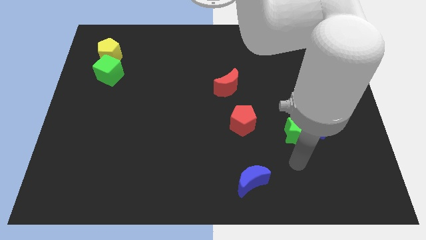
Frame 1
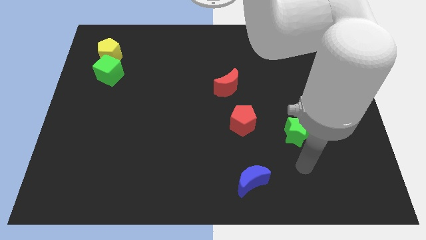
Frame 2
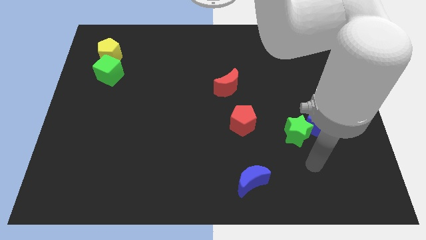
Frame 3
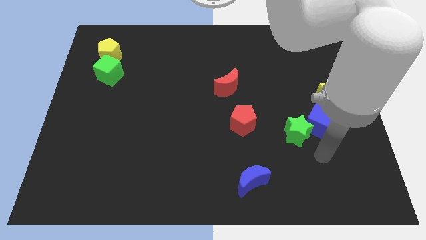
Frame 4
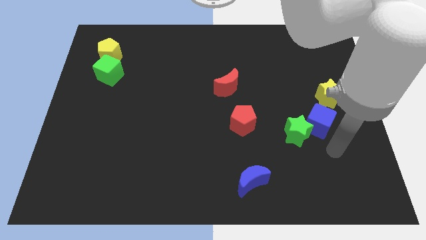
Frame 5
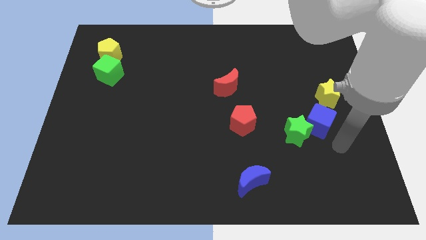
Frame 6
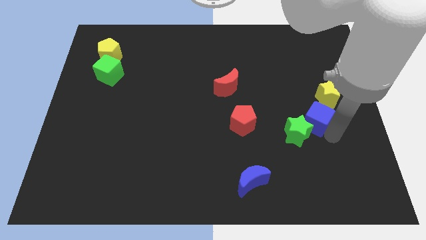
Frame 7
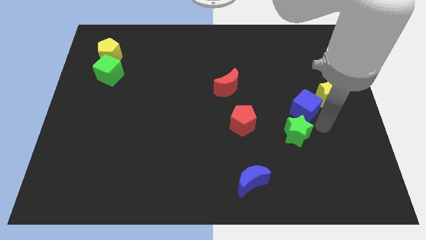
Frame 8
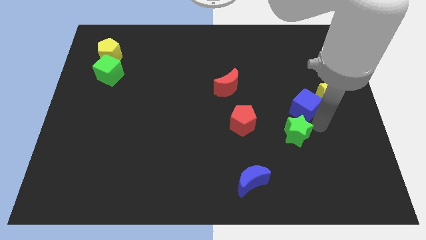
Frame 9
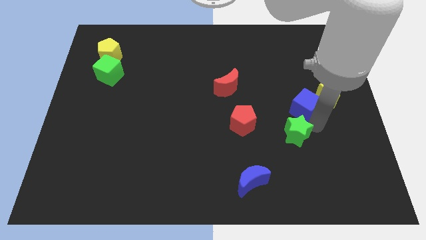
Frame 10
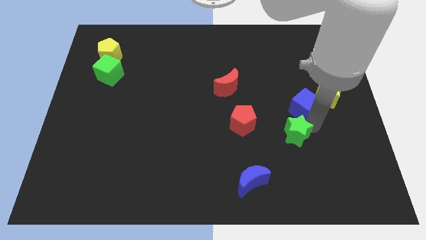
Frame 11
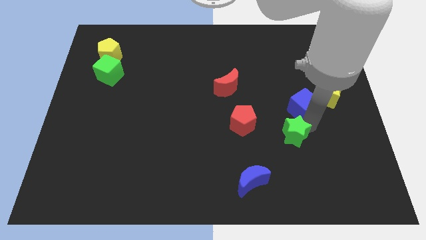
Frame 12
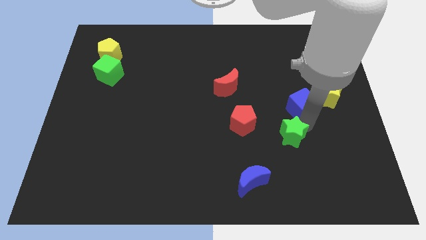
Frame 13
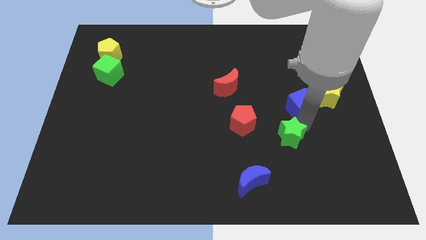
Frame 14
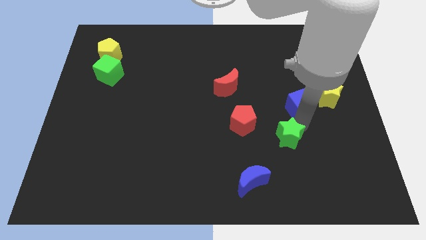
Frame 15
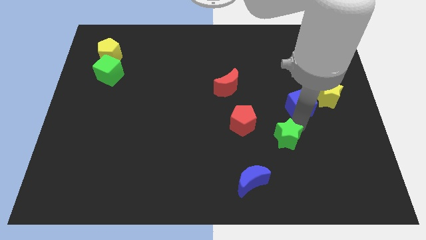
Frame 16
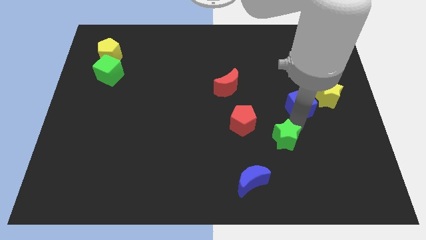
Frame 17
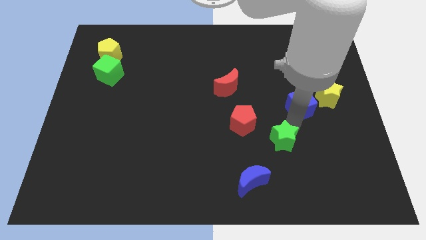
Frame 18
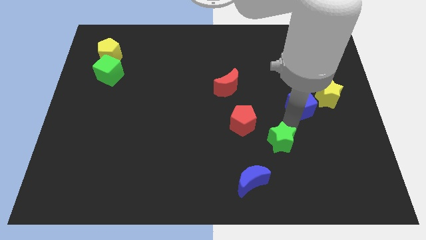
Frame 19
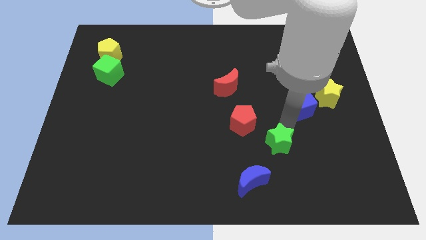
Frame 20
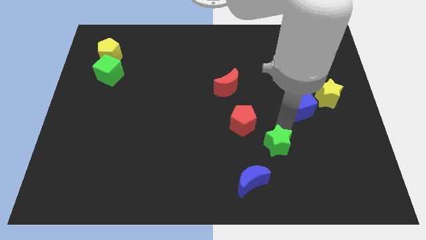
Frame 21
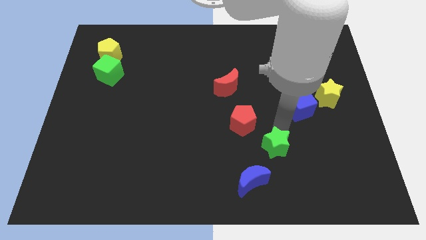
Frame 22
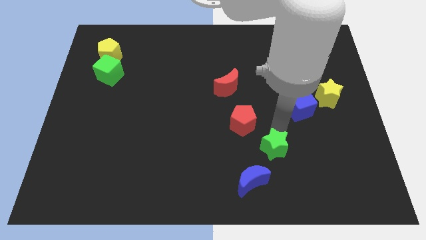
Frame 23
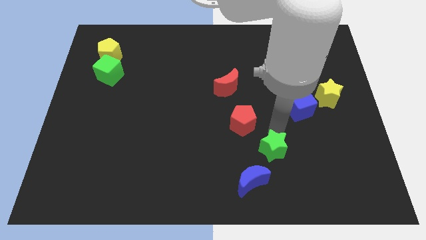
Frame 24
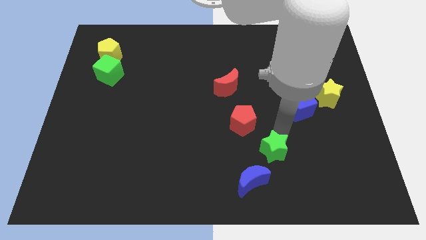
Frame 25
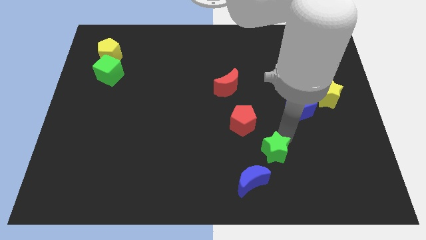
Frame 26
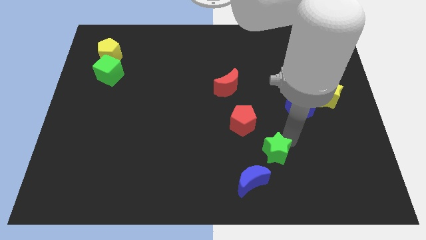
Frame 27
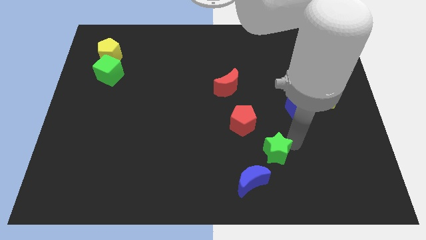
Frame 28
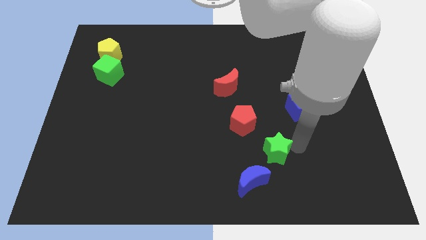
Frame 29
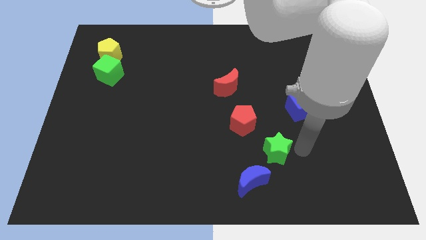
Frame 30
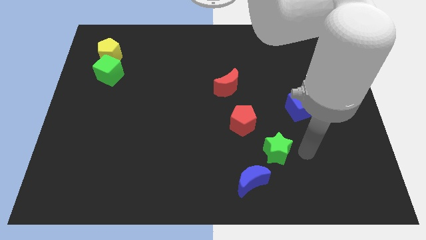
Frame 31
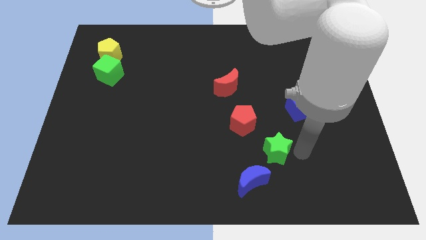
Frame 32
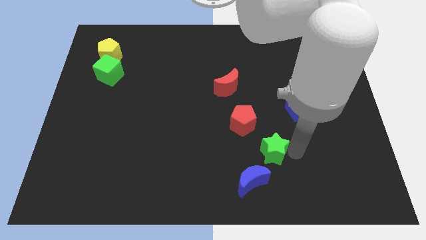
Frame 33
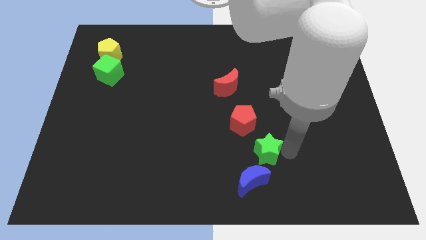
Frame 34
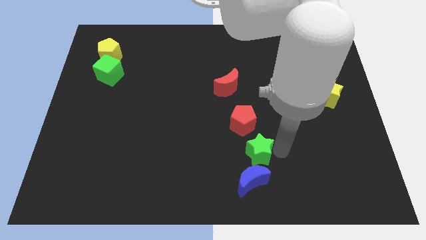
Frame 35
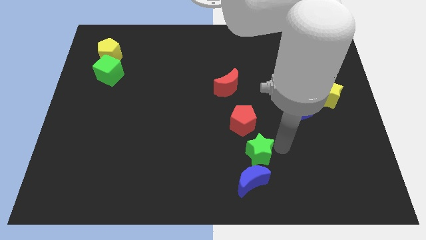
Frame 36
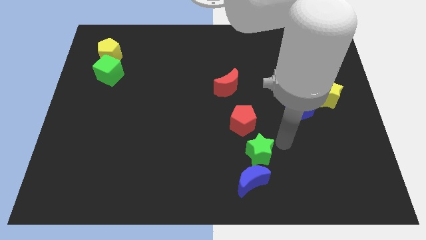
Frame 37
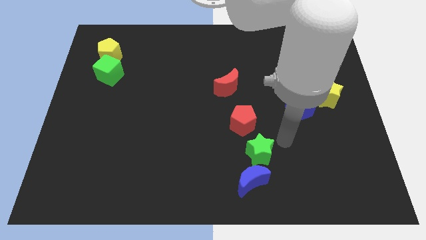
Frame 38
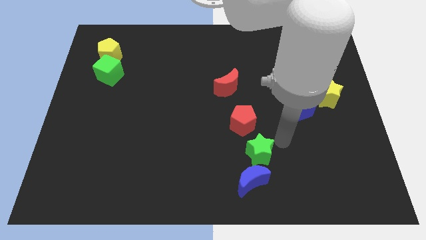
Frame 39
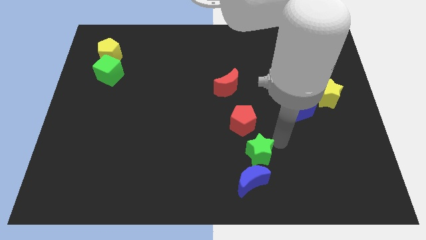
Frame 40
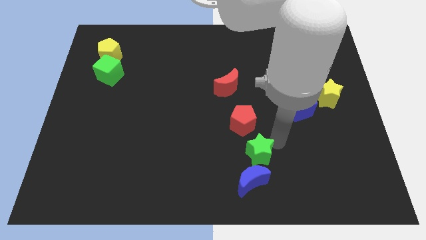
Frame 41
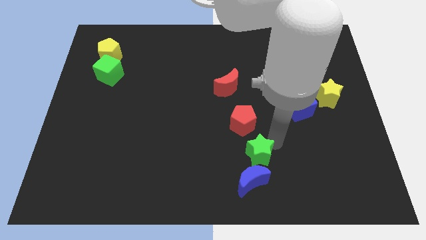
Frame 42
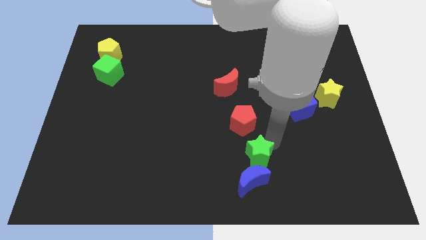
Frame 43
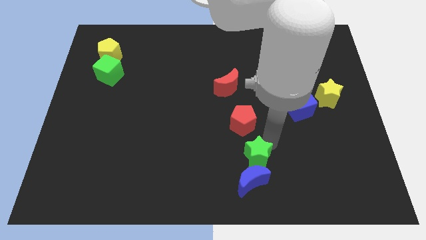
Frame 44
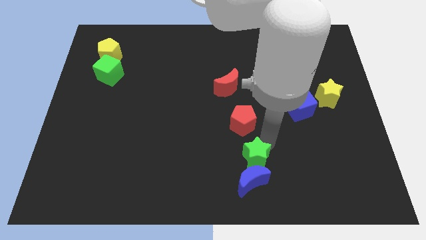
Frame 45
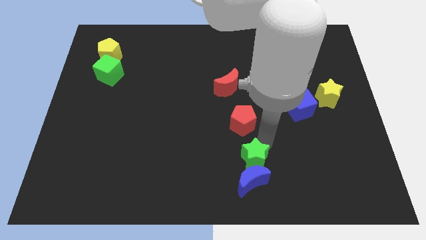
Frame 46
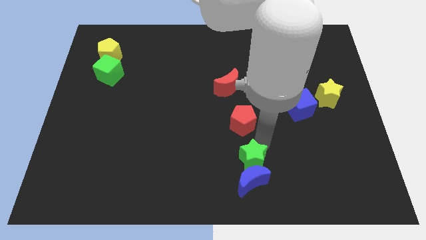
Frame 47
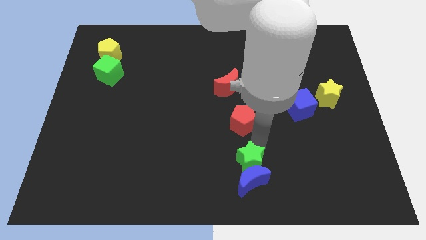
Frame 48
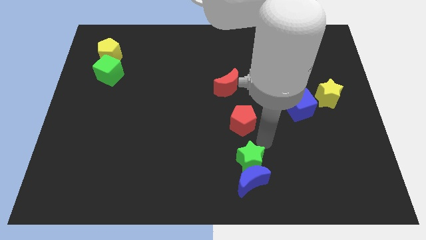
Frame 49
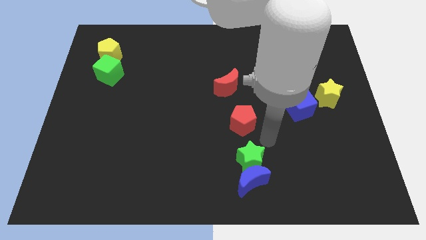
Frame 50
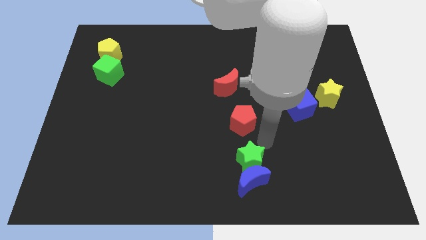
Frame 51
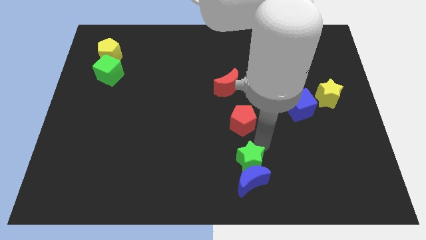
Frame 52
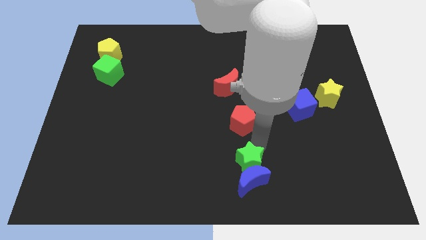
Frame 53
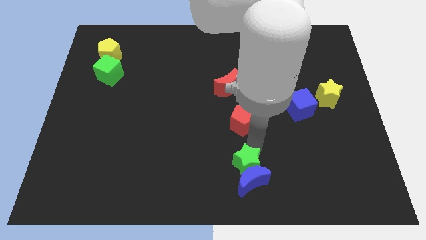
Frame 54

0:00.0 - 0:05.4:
put the green star to the bottom

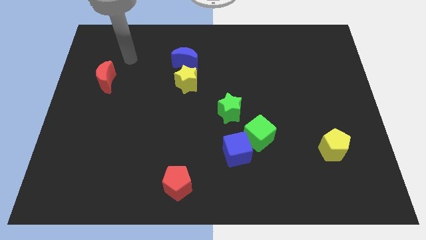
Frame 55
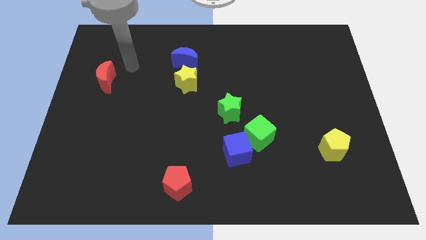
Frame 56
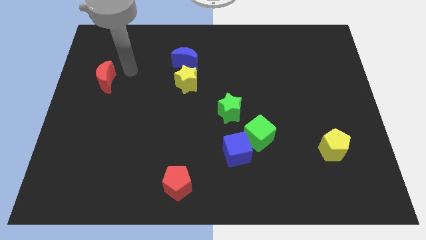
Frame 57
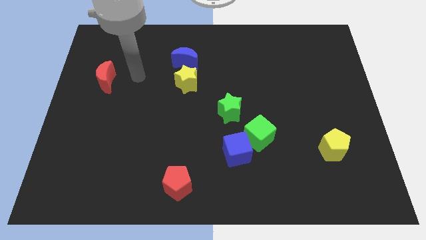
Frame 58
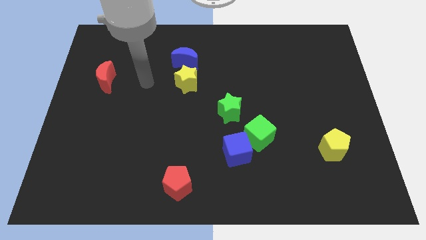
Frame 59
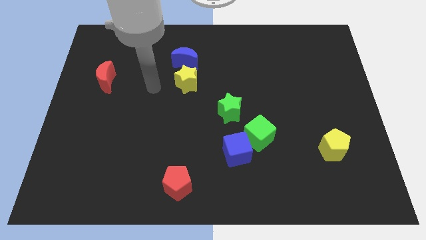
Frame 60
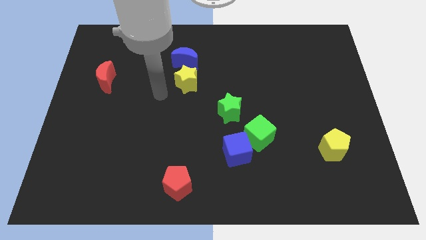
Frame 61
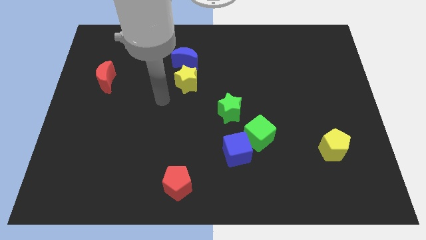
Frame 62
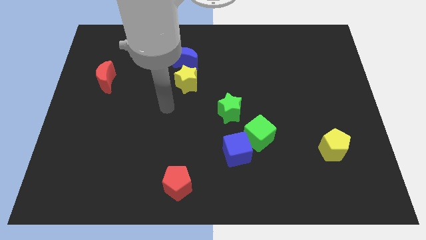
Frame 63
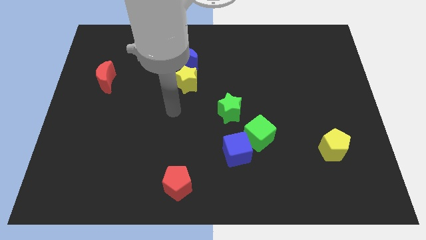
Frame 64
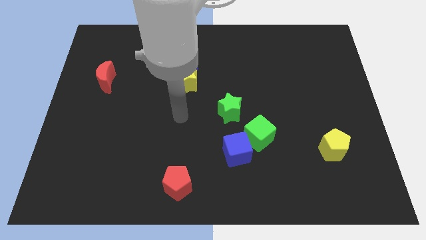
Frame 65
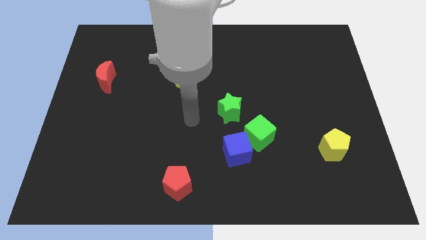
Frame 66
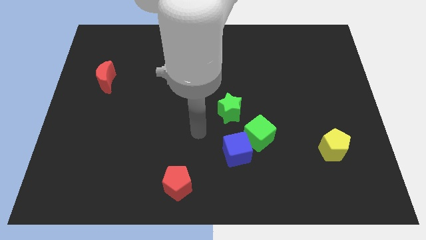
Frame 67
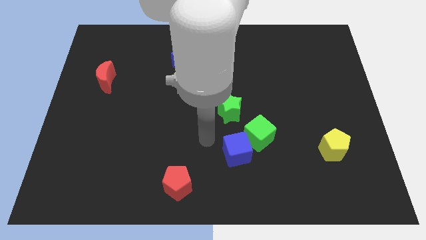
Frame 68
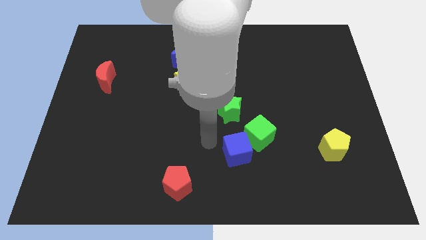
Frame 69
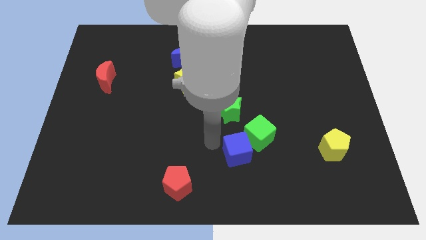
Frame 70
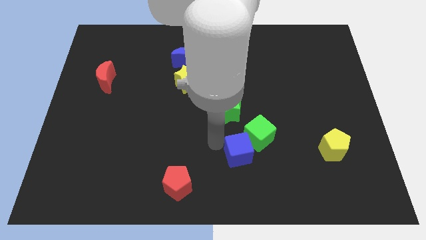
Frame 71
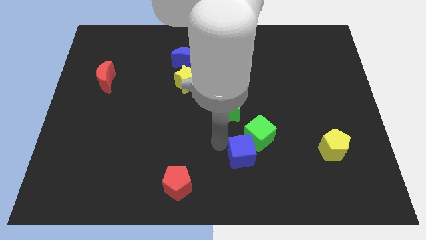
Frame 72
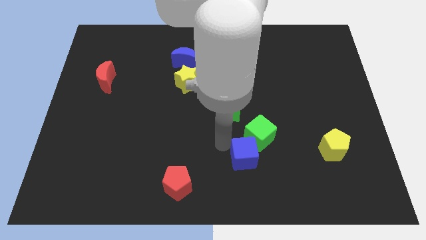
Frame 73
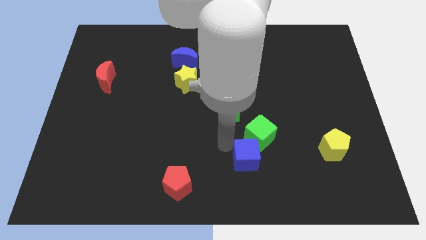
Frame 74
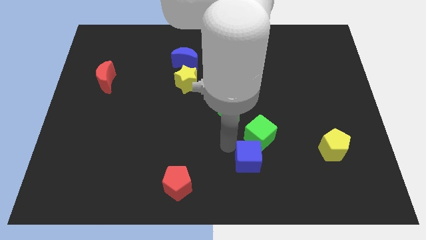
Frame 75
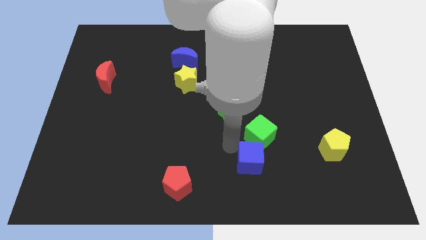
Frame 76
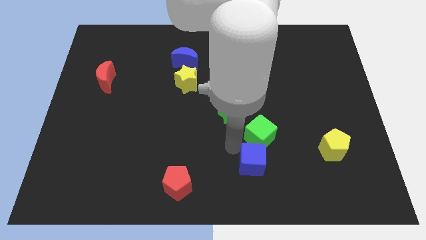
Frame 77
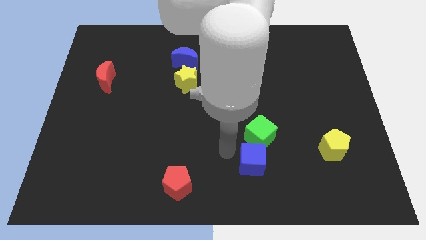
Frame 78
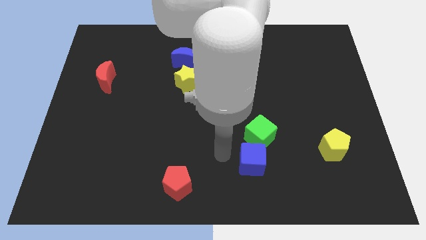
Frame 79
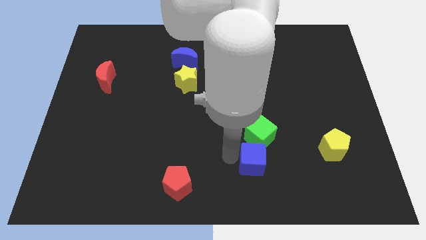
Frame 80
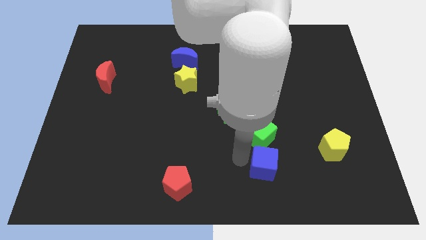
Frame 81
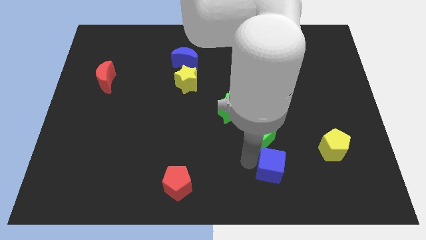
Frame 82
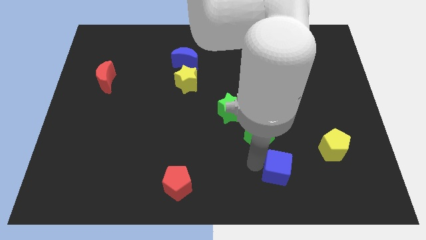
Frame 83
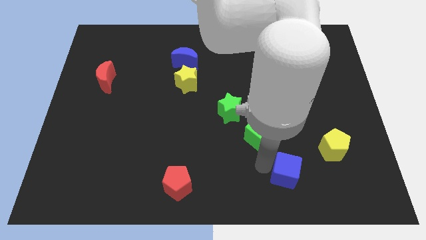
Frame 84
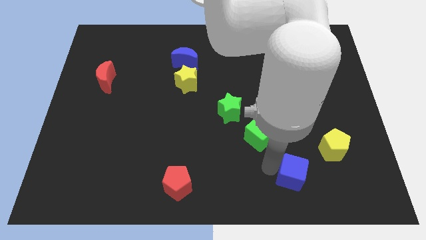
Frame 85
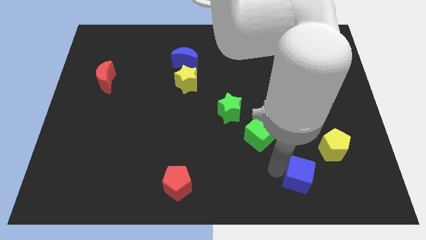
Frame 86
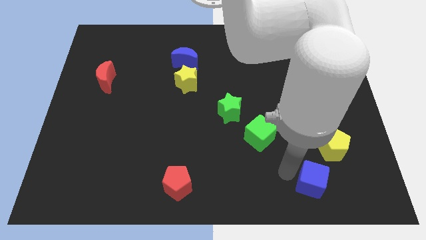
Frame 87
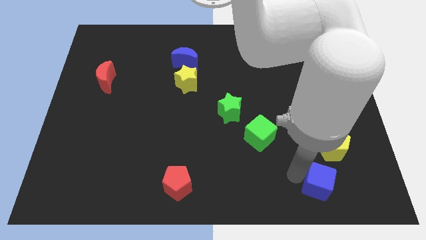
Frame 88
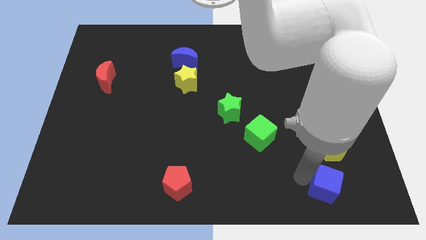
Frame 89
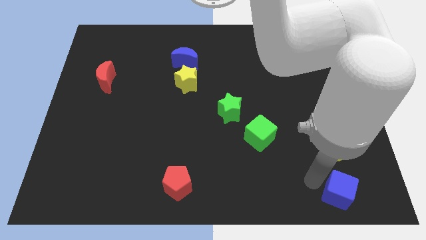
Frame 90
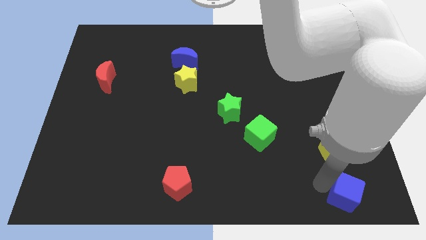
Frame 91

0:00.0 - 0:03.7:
slide the blue cube to the bottom right corner
